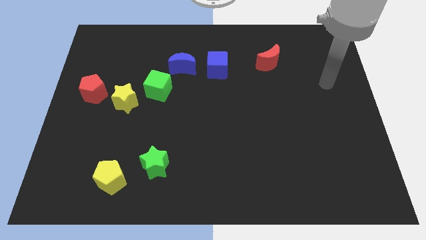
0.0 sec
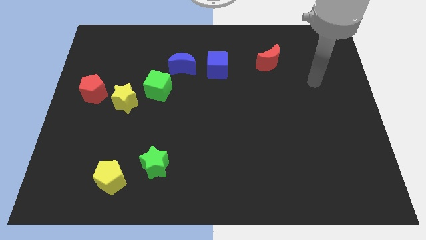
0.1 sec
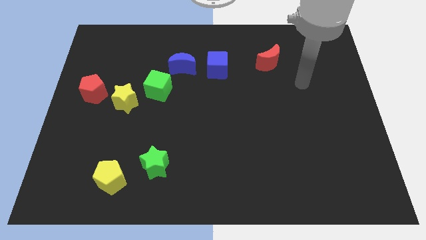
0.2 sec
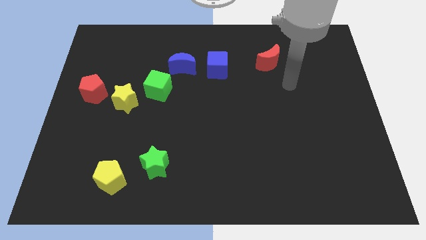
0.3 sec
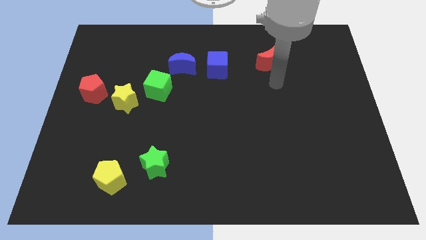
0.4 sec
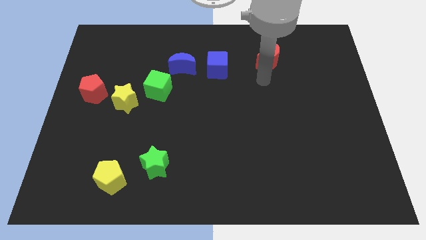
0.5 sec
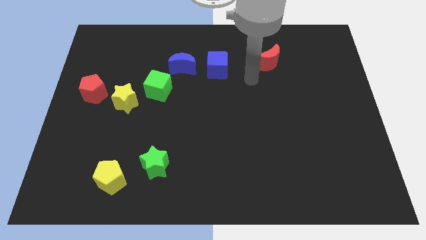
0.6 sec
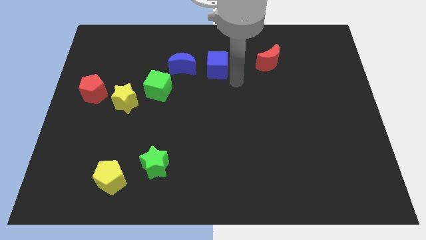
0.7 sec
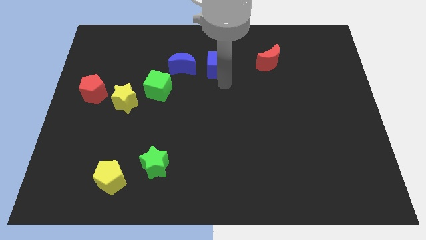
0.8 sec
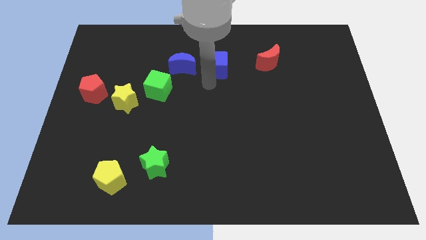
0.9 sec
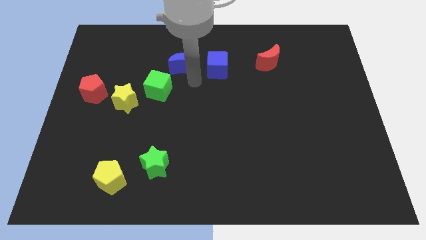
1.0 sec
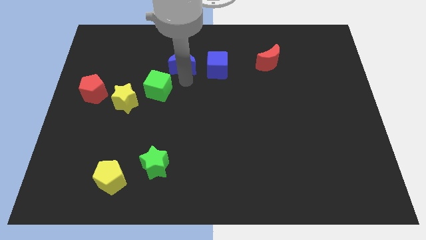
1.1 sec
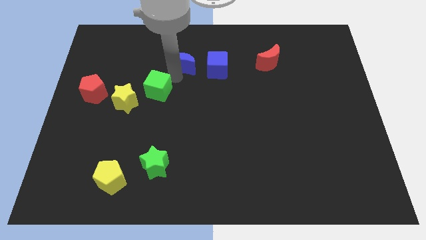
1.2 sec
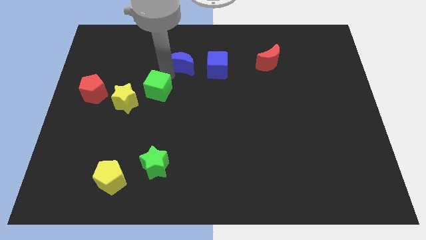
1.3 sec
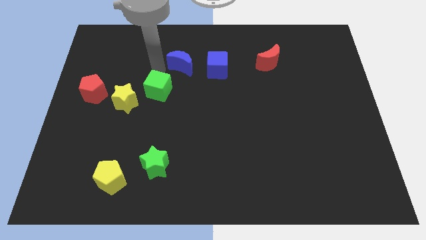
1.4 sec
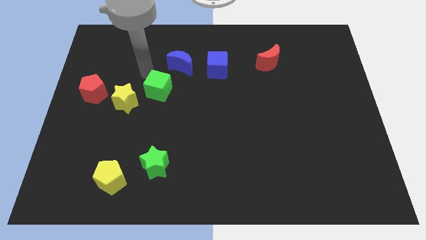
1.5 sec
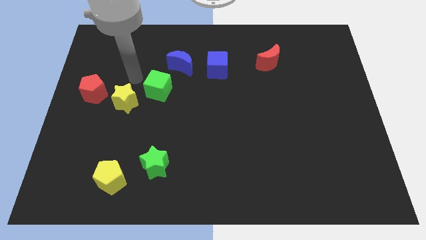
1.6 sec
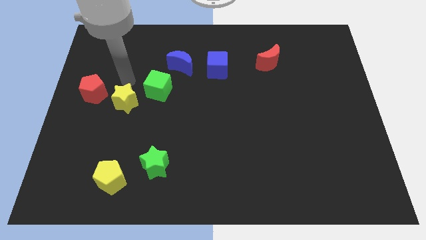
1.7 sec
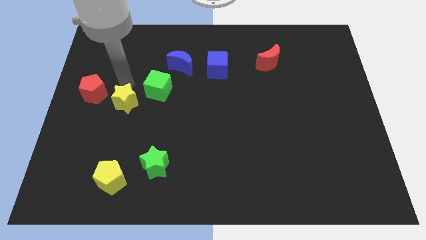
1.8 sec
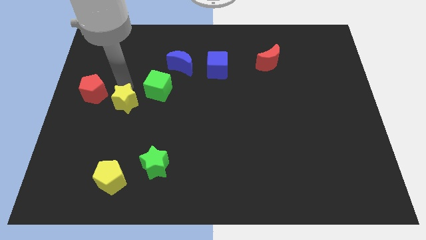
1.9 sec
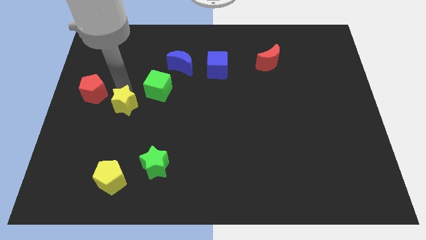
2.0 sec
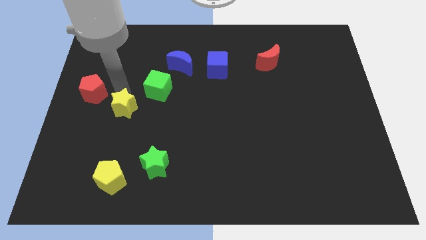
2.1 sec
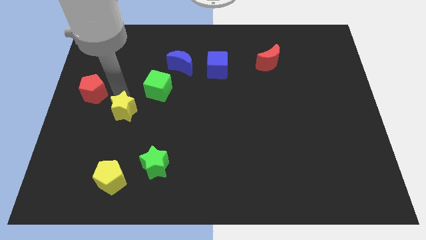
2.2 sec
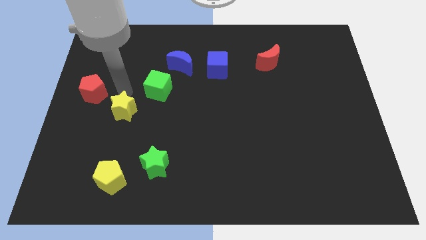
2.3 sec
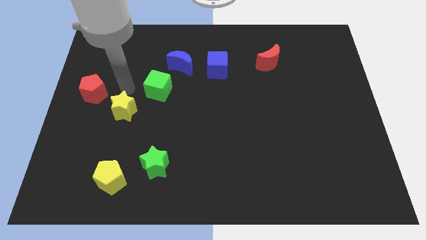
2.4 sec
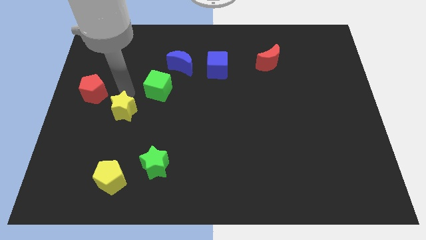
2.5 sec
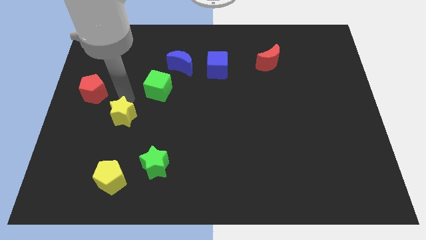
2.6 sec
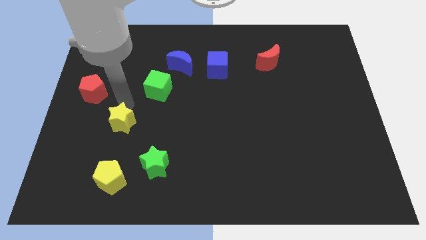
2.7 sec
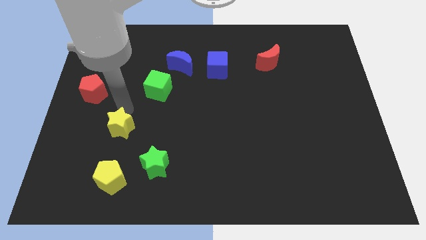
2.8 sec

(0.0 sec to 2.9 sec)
move the yellow star away from the green cube and red pentagon

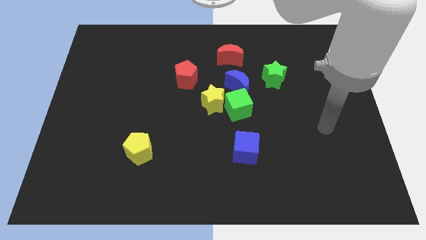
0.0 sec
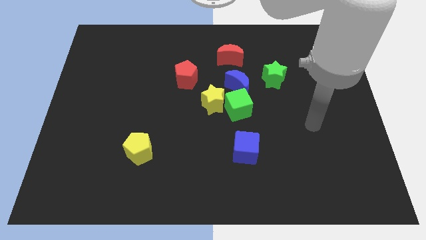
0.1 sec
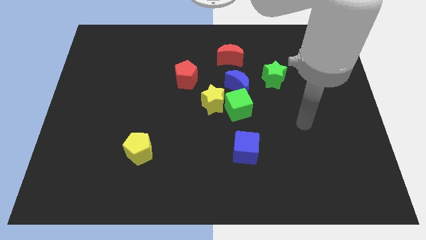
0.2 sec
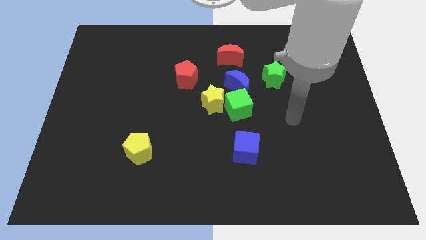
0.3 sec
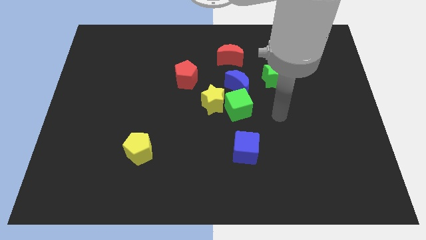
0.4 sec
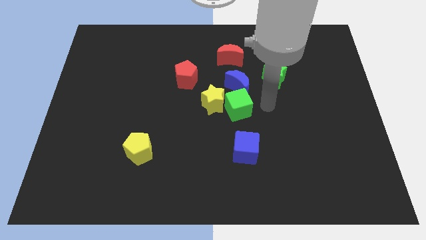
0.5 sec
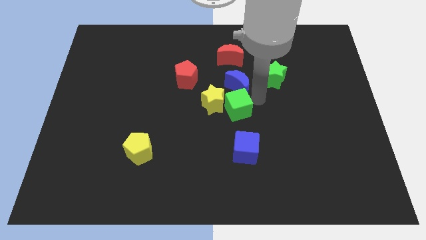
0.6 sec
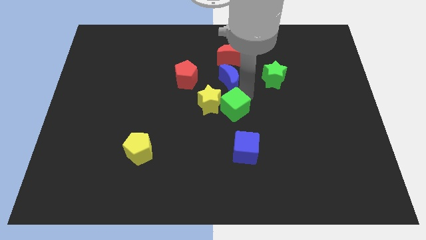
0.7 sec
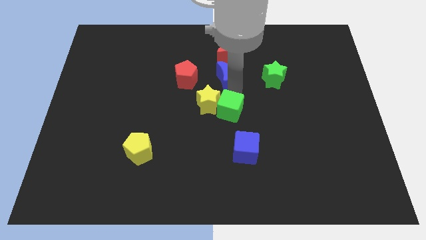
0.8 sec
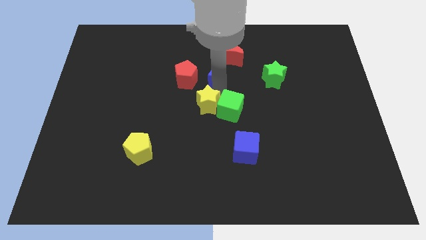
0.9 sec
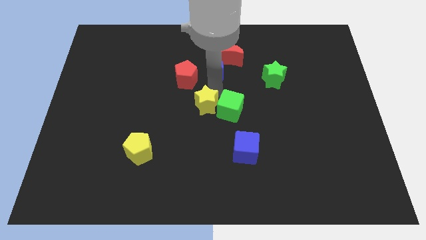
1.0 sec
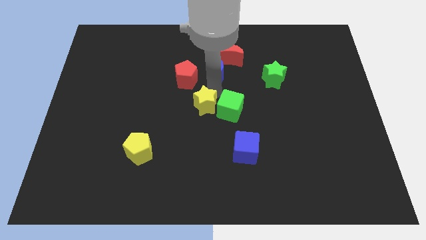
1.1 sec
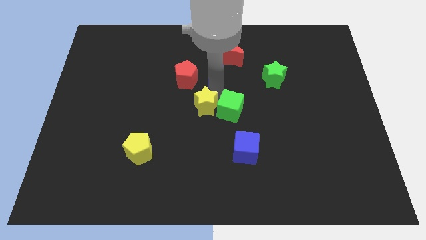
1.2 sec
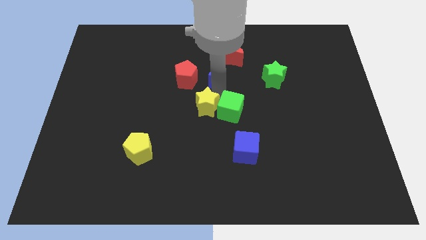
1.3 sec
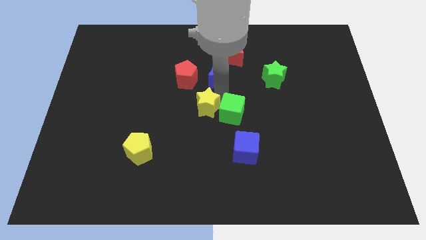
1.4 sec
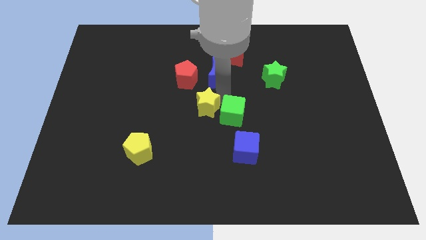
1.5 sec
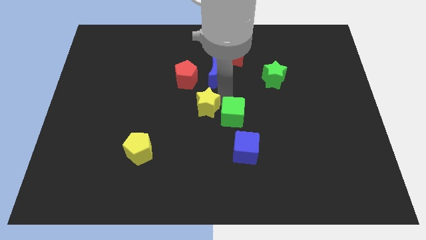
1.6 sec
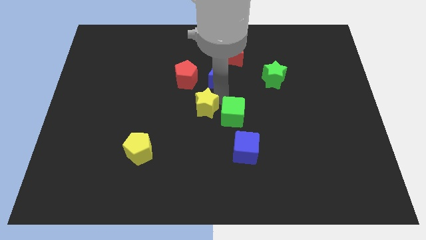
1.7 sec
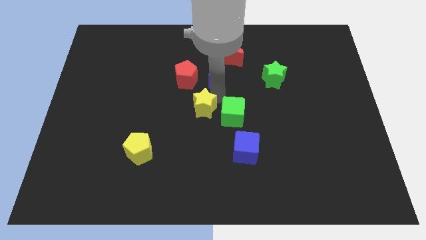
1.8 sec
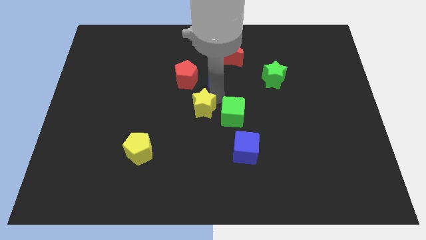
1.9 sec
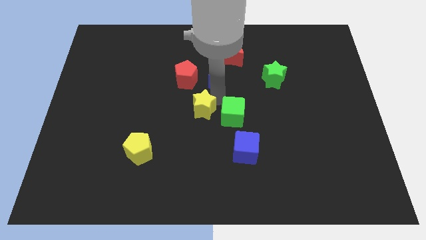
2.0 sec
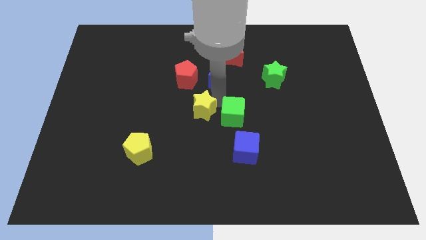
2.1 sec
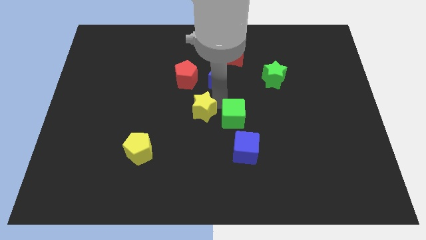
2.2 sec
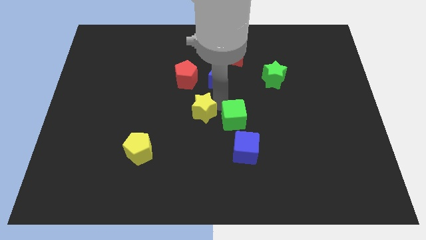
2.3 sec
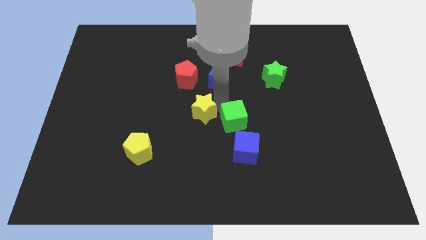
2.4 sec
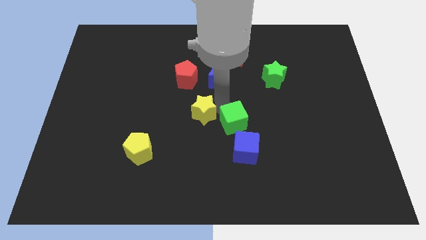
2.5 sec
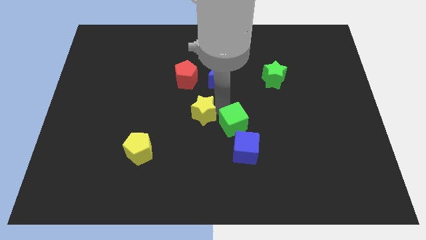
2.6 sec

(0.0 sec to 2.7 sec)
separate the green cube from the yellow star and blue moon

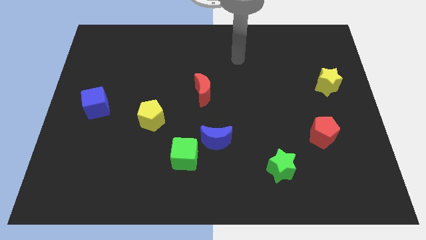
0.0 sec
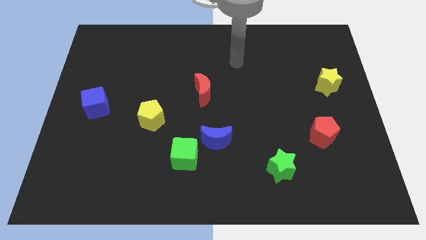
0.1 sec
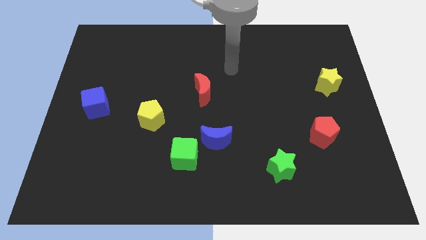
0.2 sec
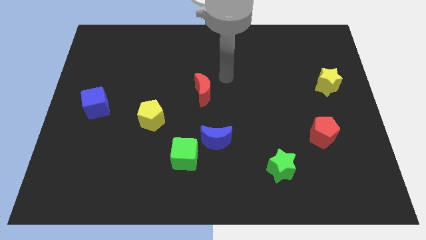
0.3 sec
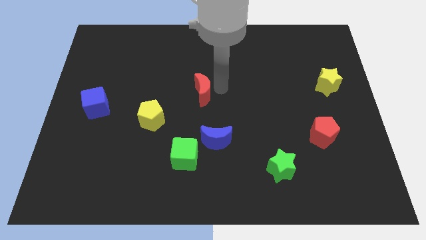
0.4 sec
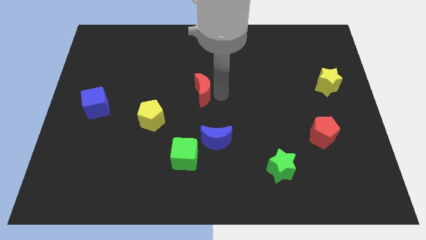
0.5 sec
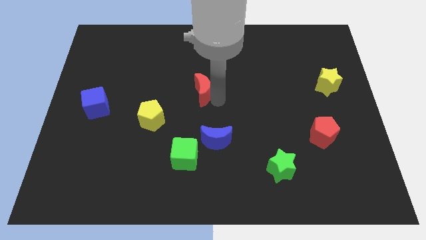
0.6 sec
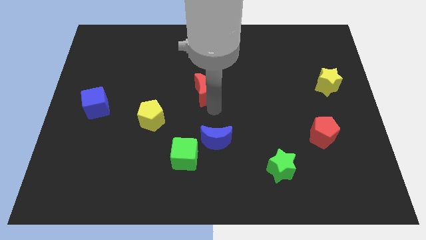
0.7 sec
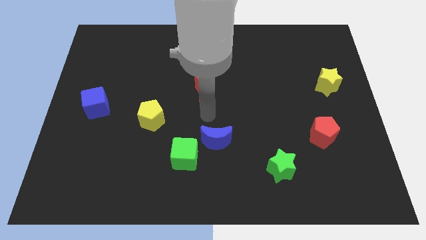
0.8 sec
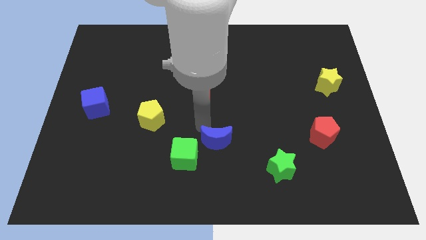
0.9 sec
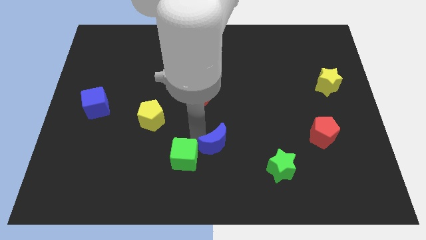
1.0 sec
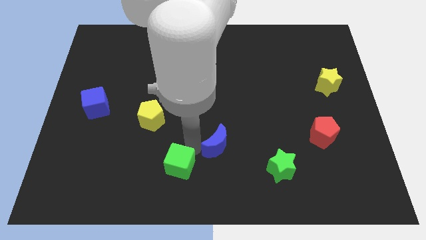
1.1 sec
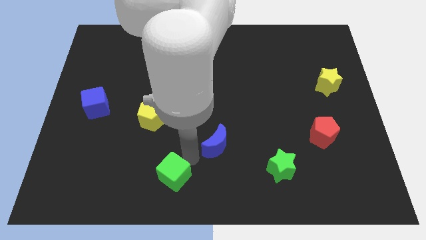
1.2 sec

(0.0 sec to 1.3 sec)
separate the blue moon from the green cube

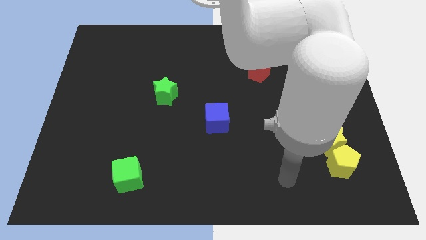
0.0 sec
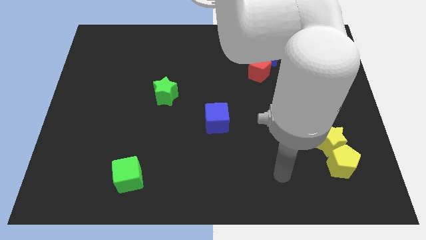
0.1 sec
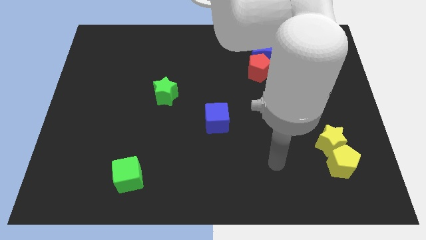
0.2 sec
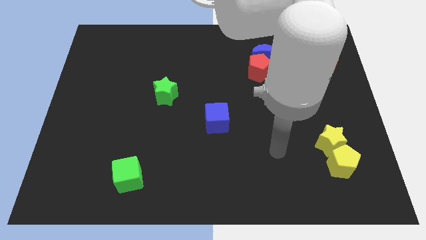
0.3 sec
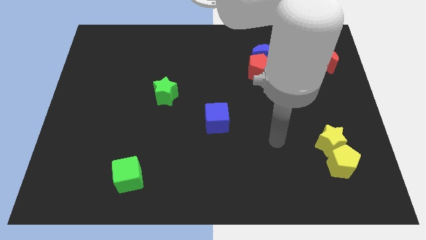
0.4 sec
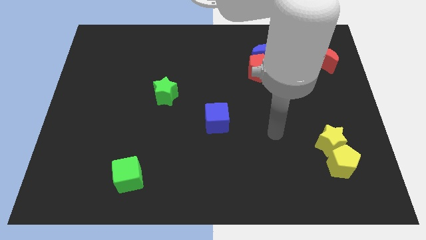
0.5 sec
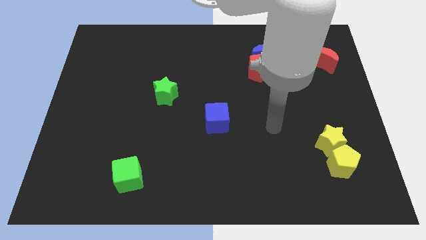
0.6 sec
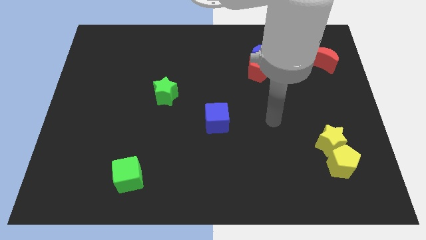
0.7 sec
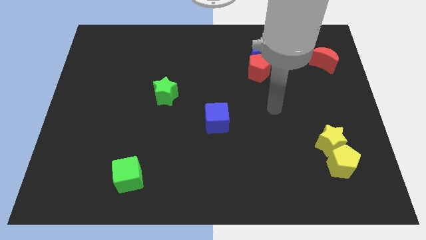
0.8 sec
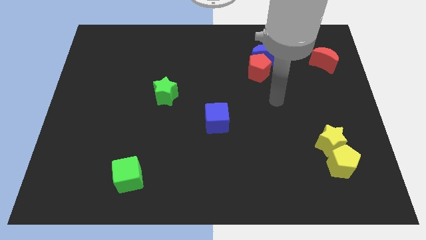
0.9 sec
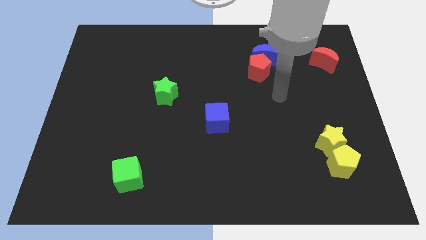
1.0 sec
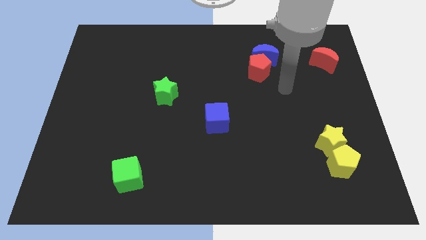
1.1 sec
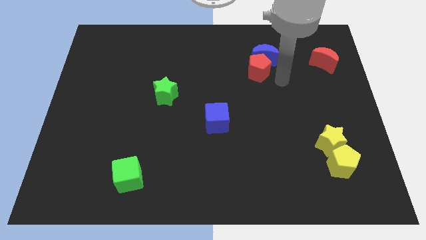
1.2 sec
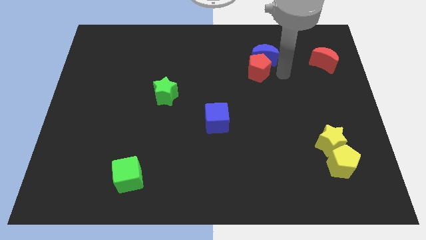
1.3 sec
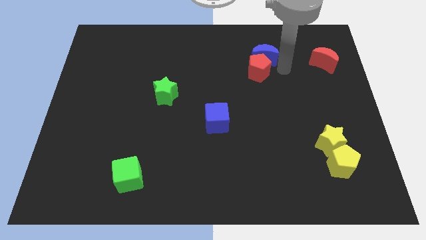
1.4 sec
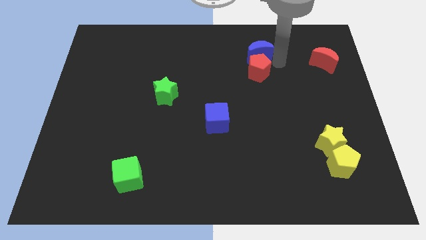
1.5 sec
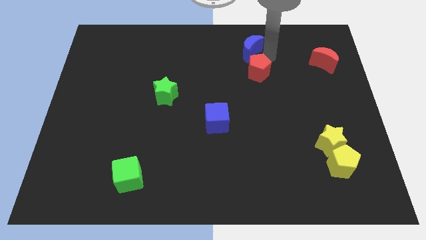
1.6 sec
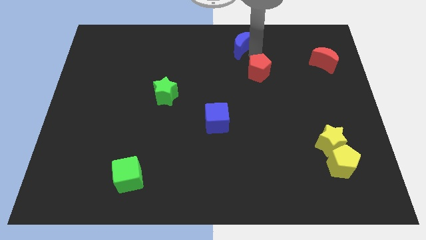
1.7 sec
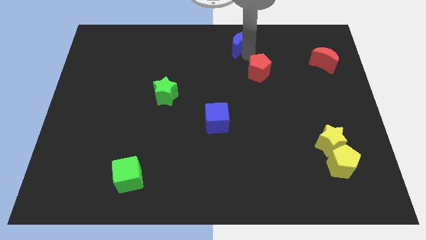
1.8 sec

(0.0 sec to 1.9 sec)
pull the red pentagon apart from the blue moon

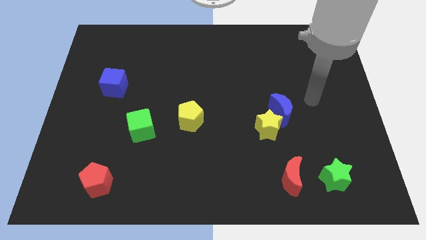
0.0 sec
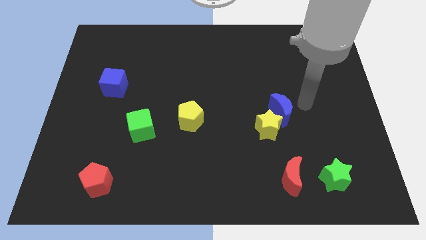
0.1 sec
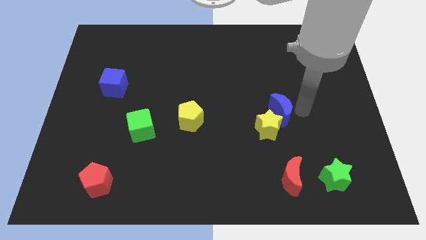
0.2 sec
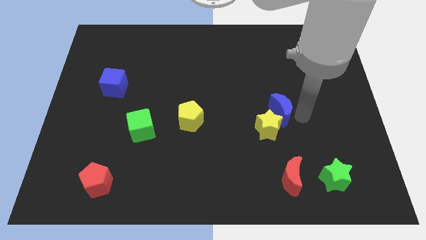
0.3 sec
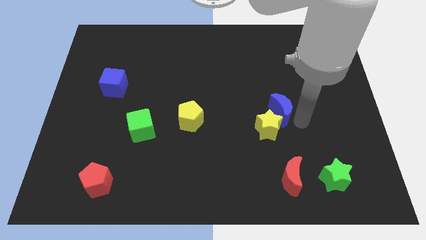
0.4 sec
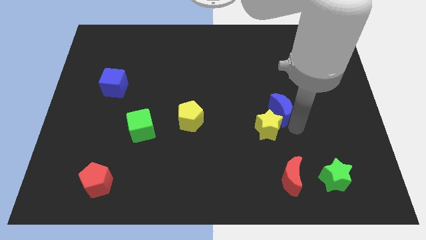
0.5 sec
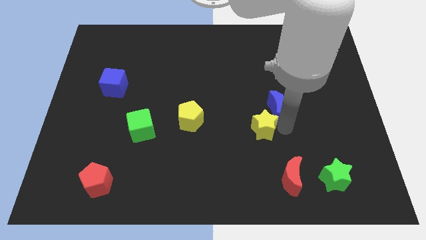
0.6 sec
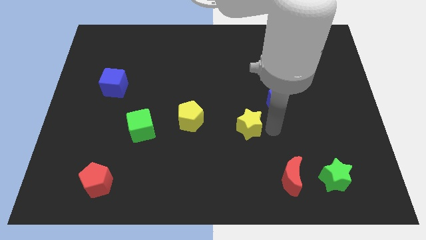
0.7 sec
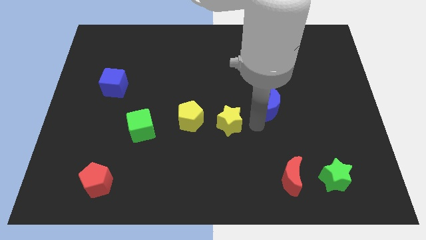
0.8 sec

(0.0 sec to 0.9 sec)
separate the blue moon from the yellow star
